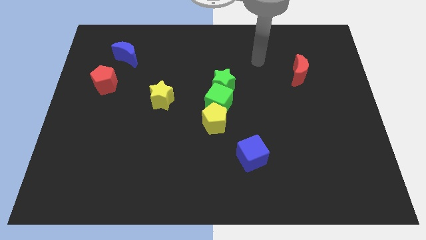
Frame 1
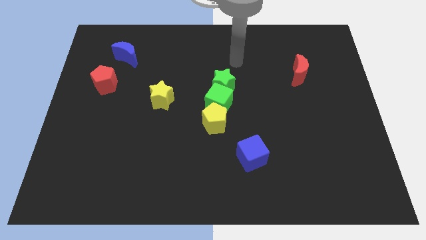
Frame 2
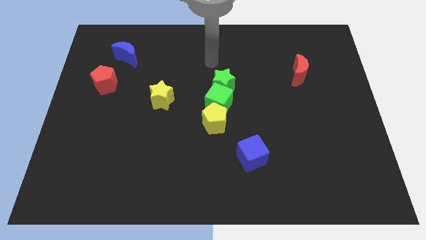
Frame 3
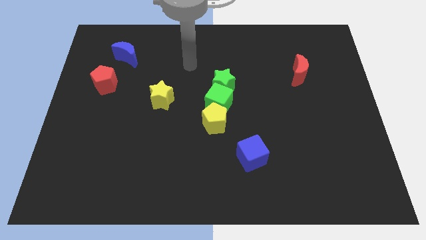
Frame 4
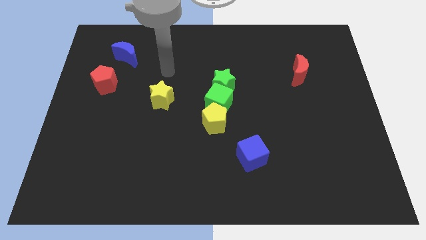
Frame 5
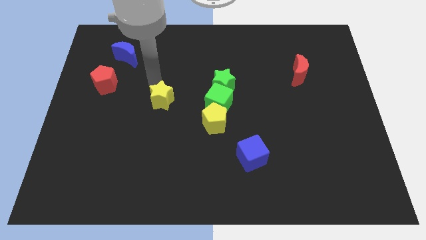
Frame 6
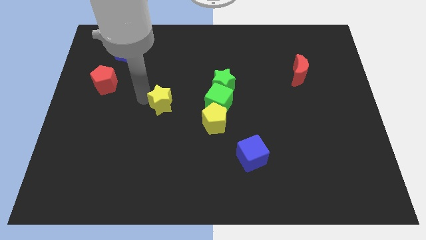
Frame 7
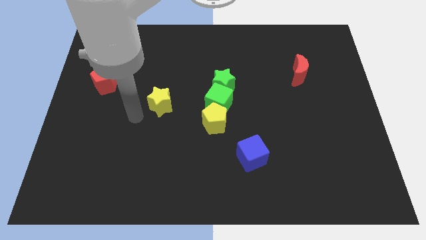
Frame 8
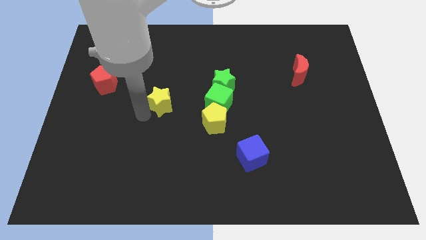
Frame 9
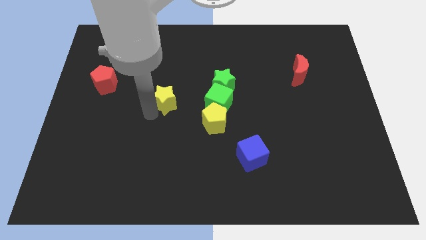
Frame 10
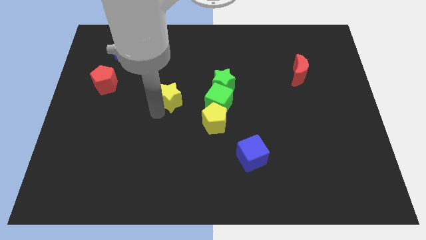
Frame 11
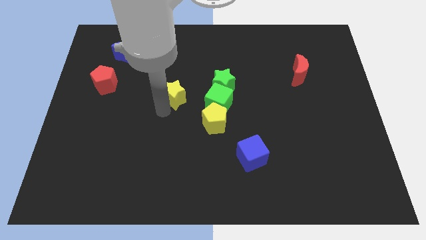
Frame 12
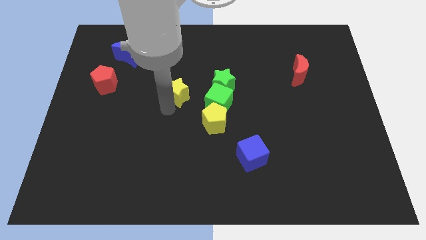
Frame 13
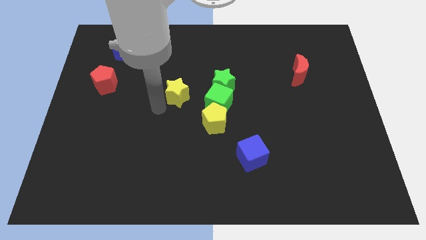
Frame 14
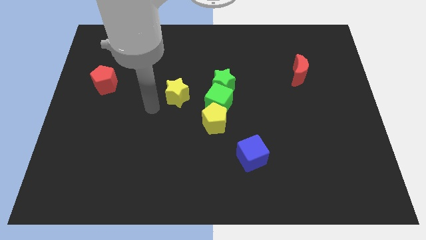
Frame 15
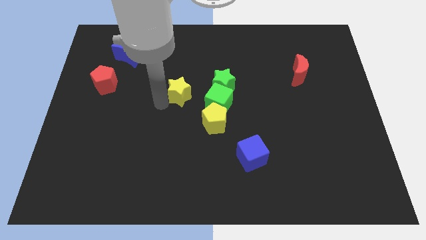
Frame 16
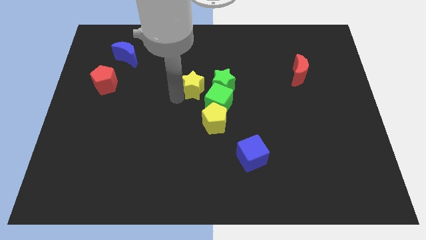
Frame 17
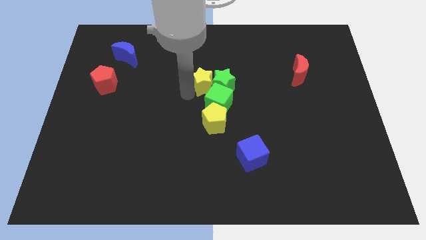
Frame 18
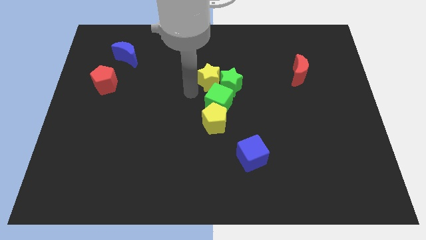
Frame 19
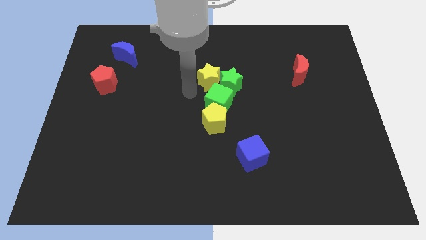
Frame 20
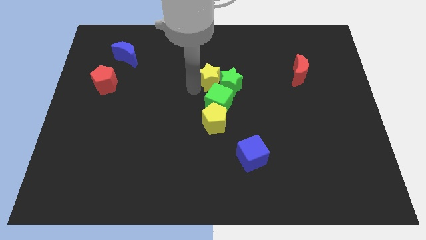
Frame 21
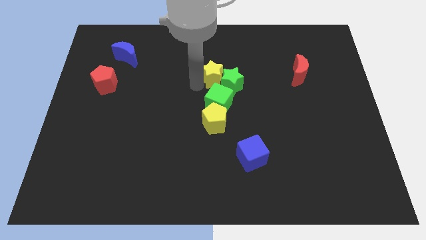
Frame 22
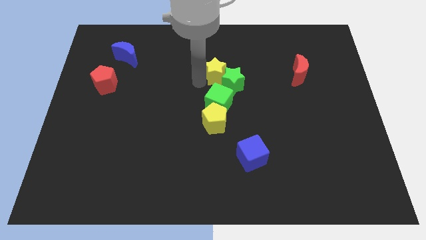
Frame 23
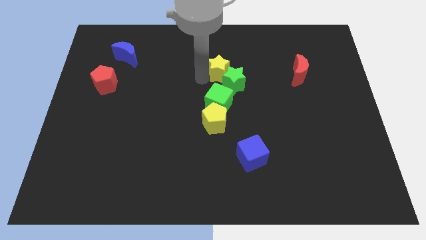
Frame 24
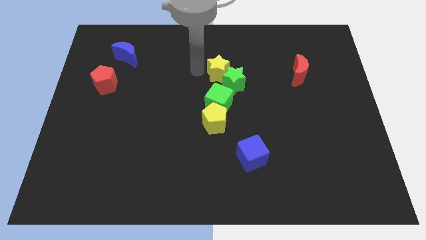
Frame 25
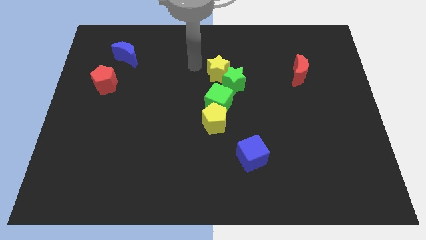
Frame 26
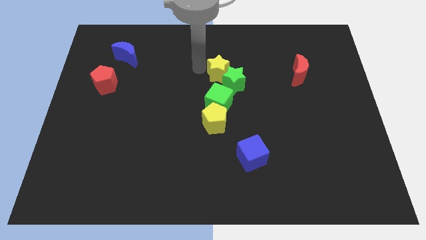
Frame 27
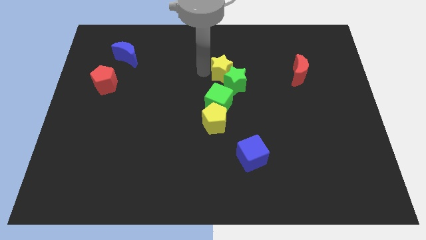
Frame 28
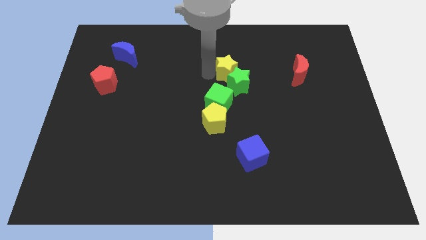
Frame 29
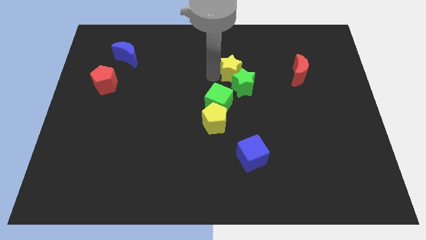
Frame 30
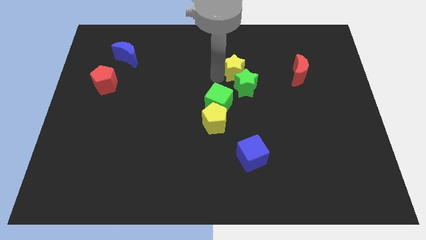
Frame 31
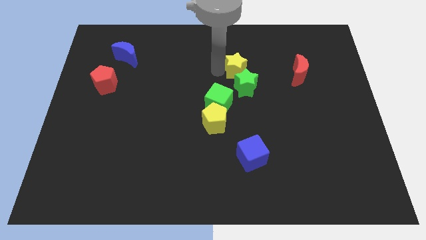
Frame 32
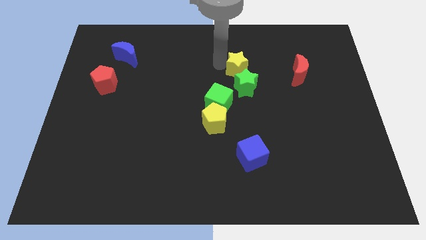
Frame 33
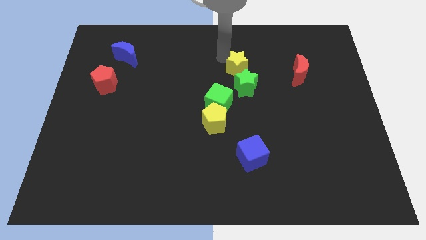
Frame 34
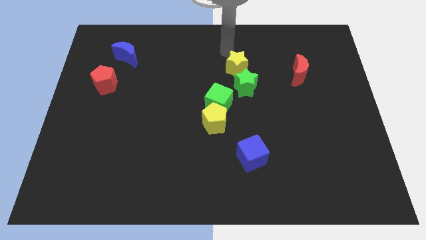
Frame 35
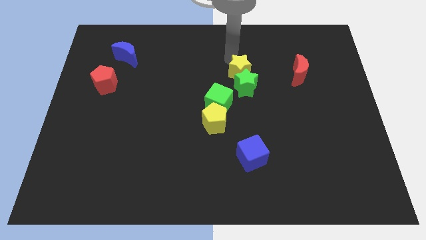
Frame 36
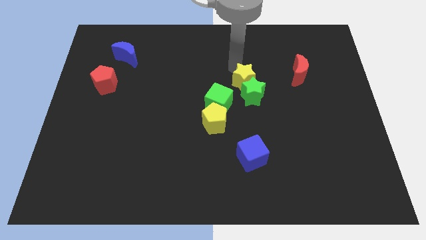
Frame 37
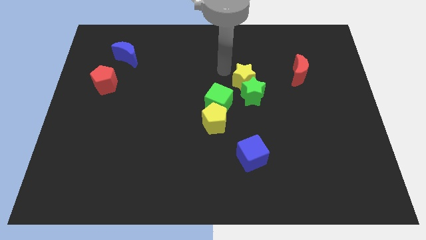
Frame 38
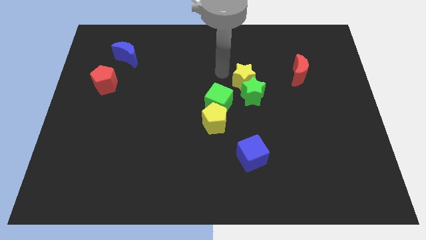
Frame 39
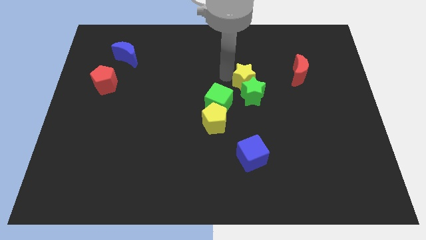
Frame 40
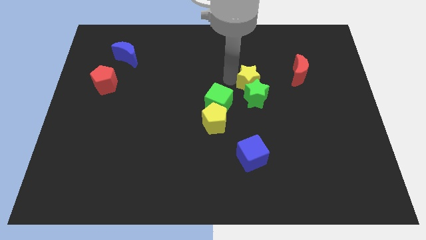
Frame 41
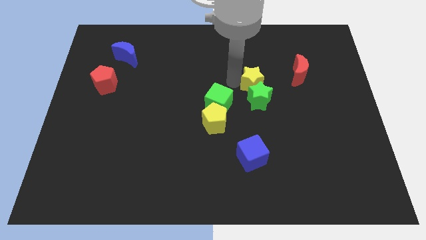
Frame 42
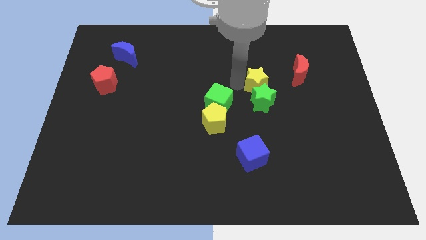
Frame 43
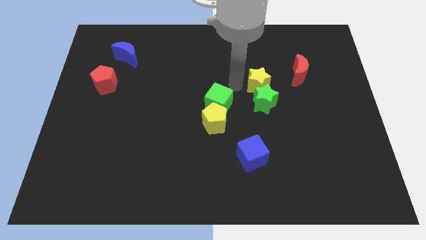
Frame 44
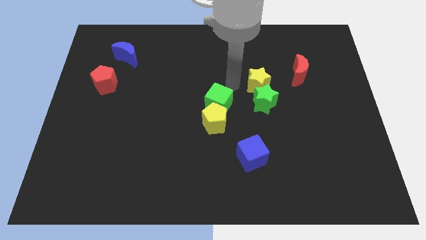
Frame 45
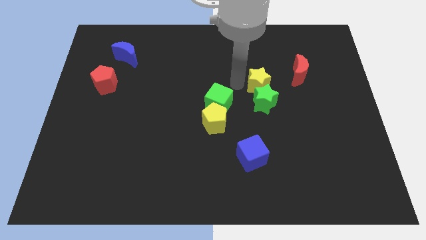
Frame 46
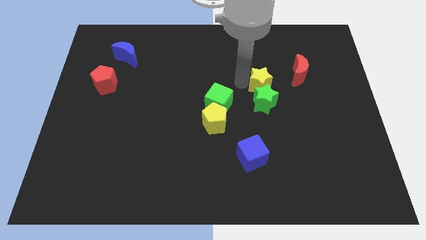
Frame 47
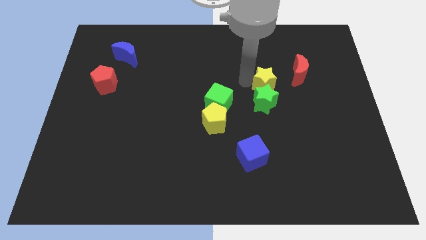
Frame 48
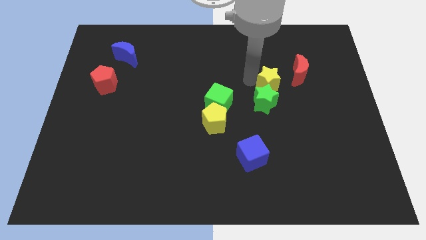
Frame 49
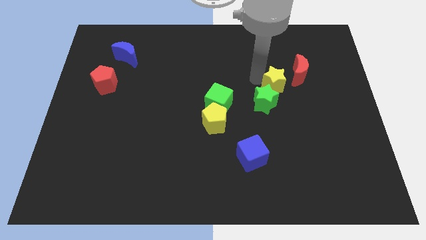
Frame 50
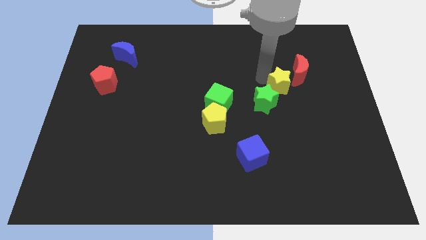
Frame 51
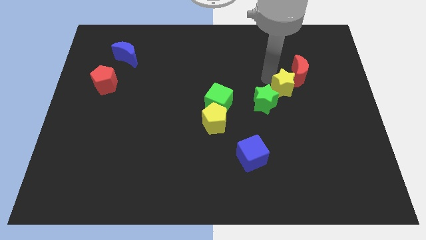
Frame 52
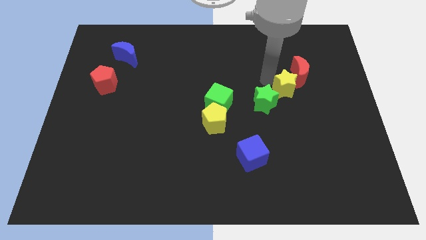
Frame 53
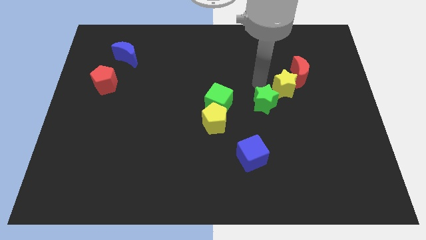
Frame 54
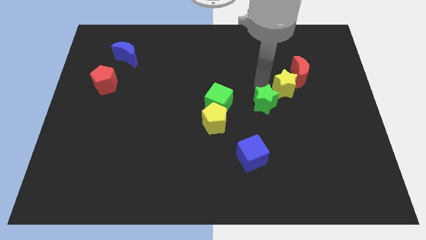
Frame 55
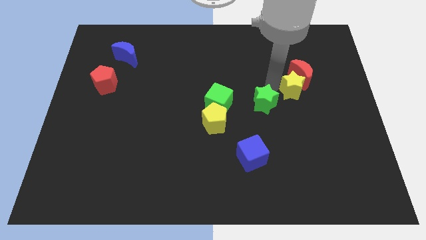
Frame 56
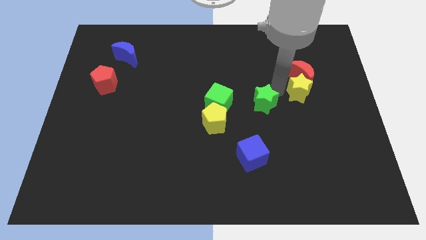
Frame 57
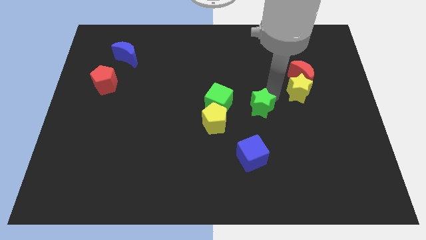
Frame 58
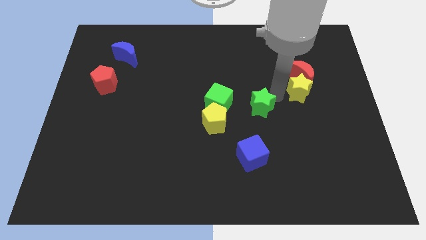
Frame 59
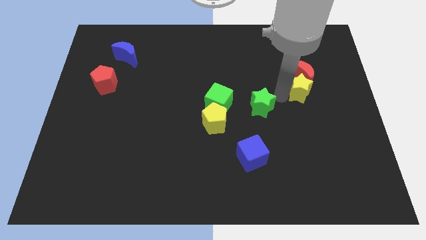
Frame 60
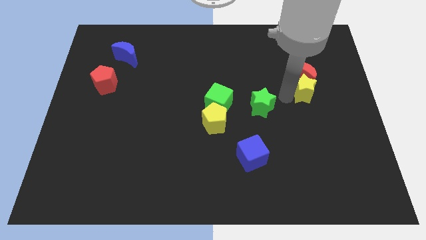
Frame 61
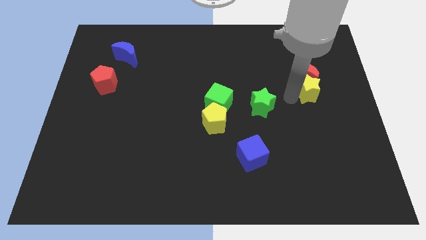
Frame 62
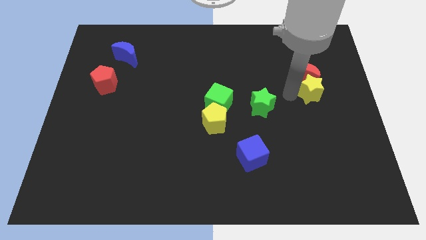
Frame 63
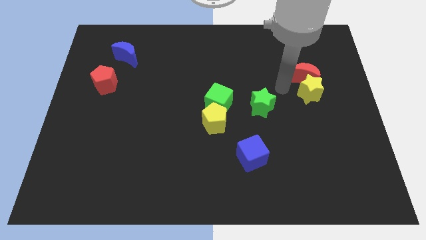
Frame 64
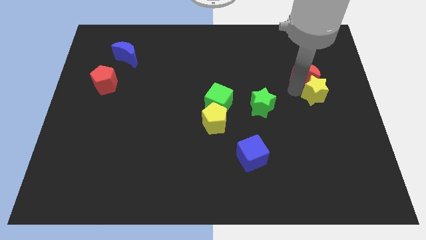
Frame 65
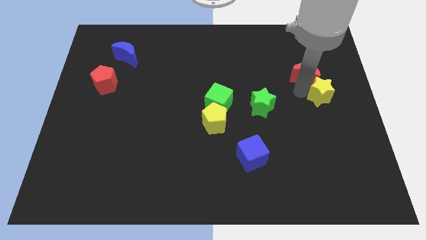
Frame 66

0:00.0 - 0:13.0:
push the yellow star to the right side of the board
